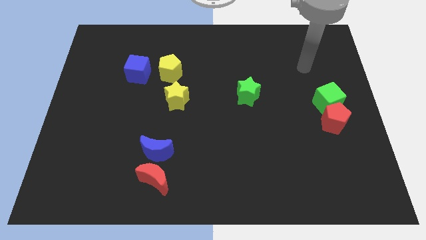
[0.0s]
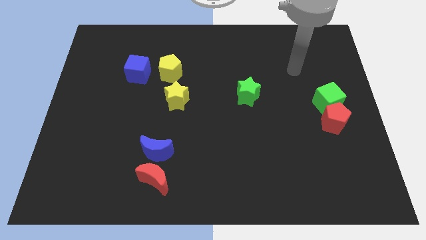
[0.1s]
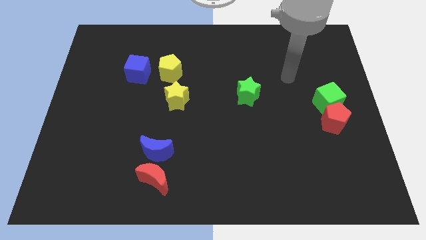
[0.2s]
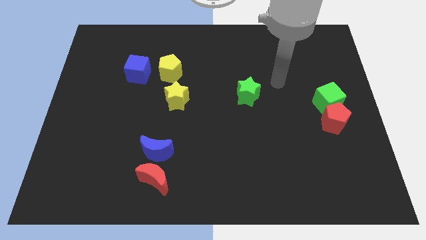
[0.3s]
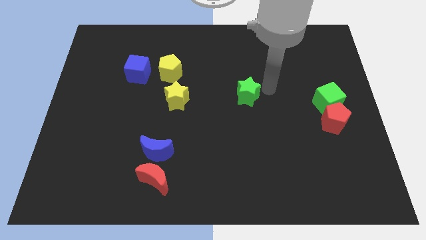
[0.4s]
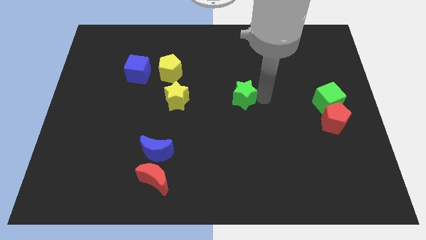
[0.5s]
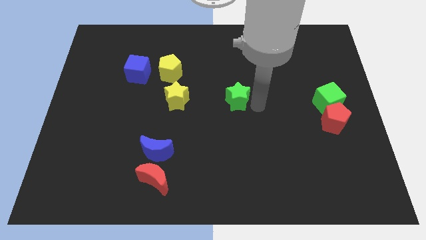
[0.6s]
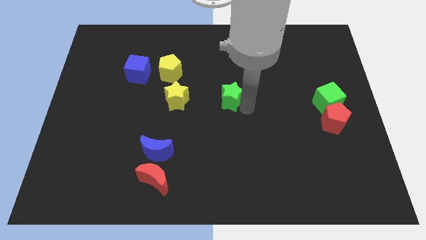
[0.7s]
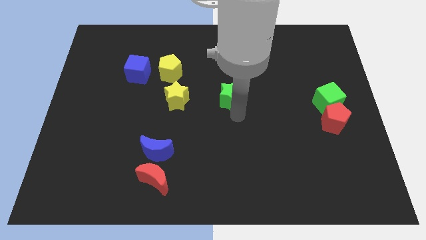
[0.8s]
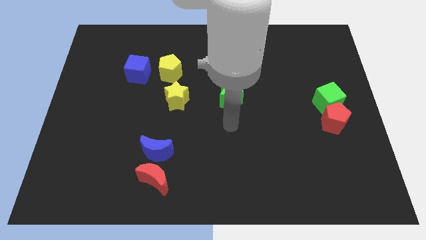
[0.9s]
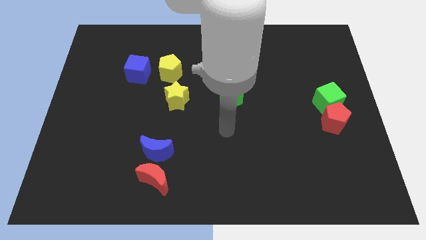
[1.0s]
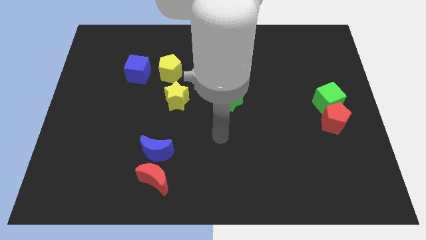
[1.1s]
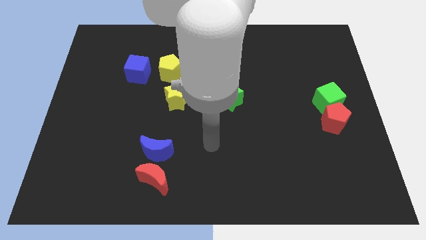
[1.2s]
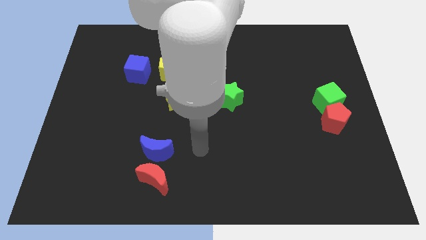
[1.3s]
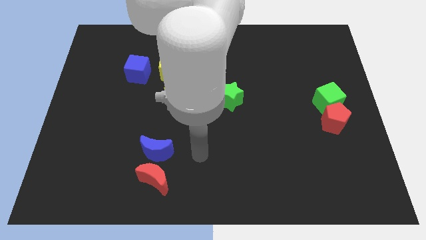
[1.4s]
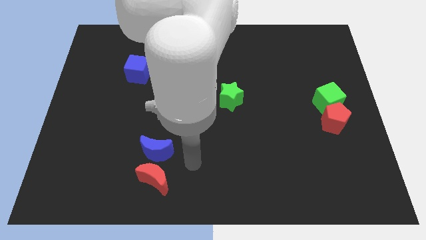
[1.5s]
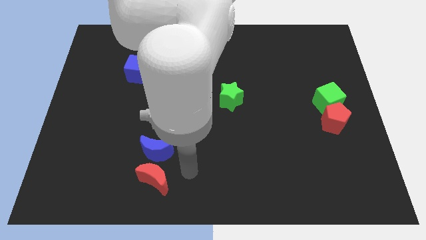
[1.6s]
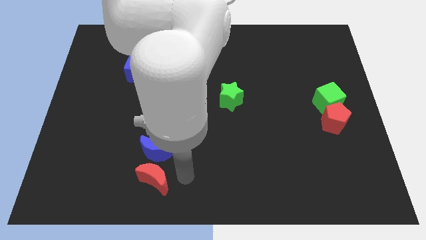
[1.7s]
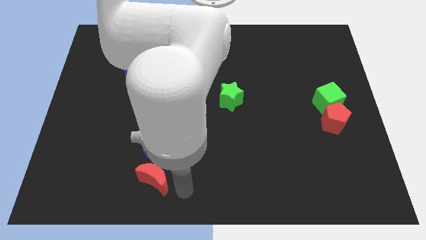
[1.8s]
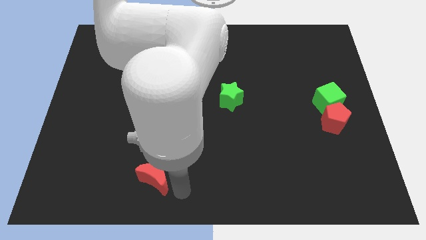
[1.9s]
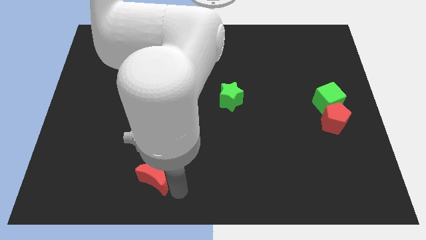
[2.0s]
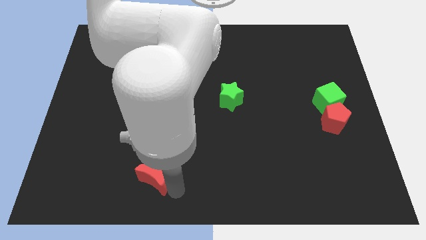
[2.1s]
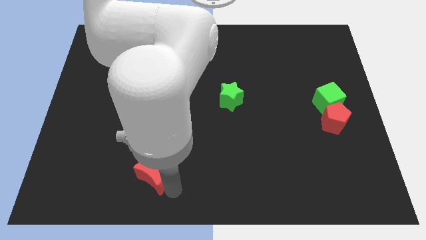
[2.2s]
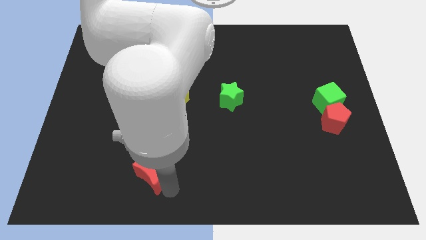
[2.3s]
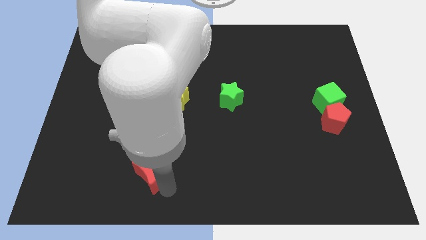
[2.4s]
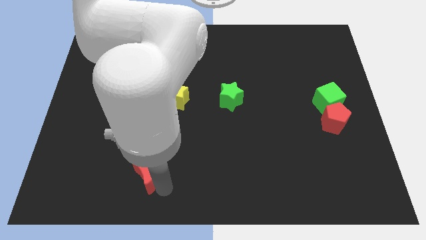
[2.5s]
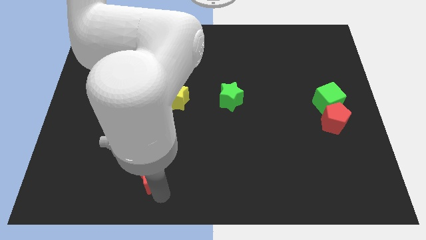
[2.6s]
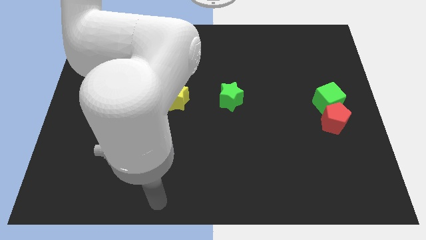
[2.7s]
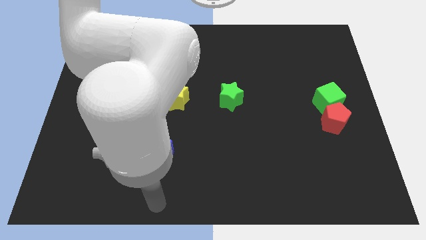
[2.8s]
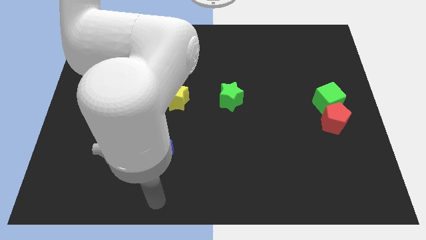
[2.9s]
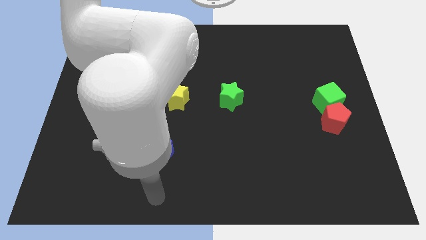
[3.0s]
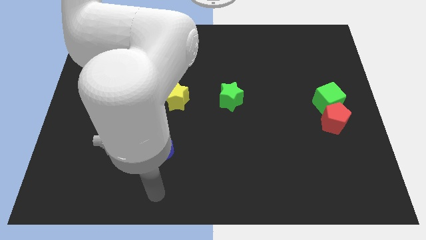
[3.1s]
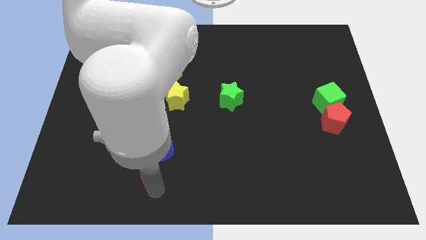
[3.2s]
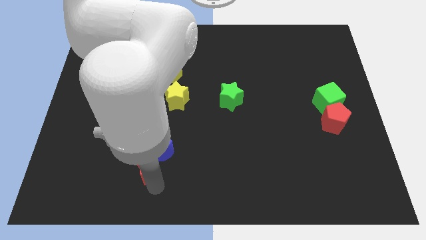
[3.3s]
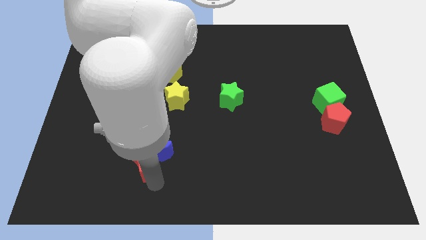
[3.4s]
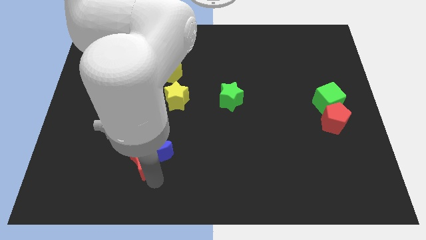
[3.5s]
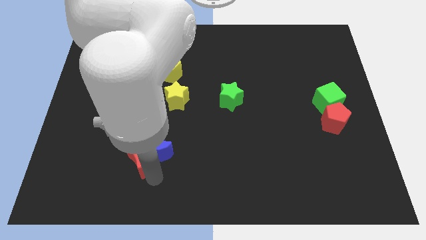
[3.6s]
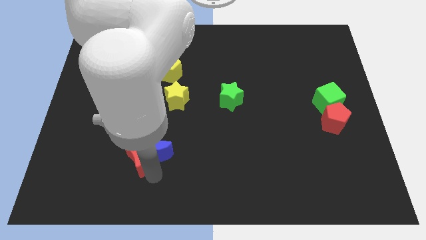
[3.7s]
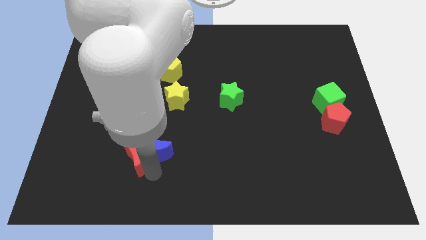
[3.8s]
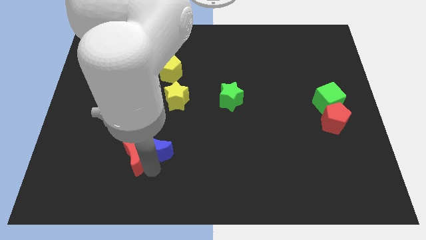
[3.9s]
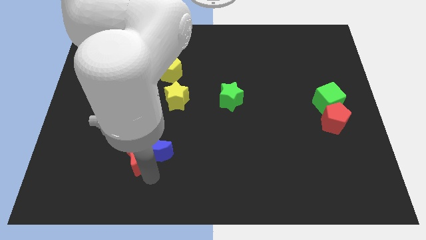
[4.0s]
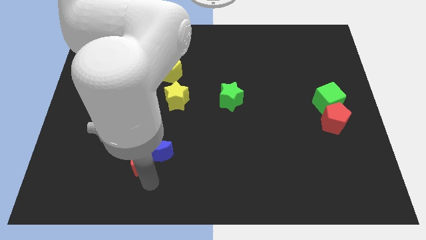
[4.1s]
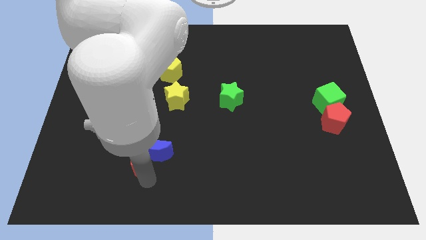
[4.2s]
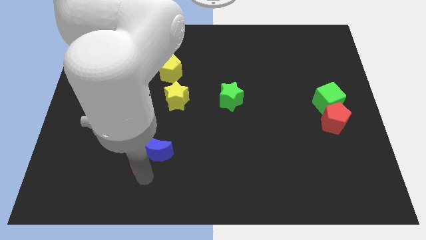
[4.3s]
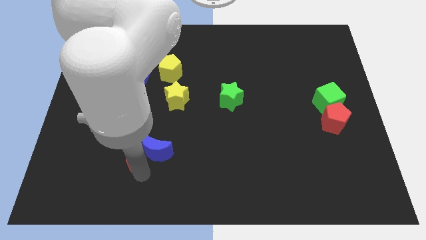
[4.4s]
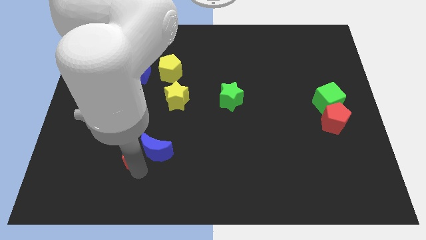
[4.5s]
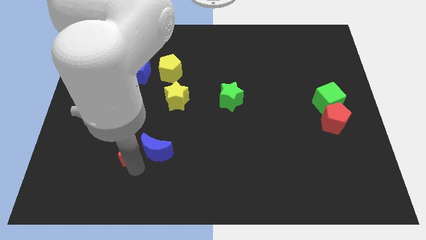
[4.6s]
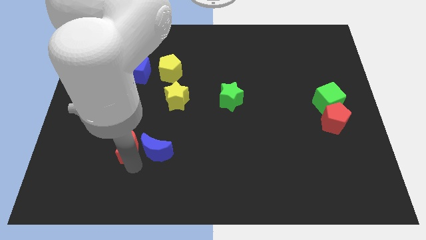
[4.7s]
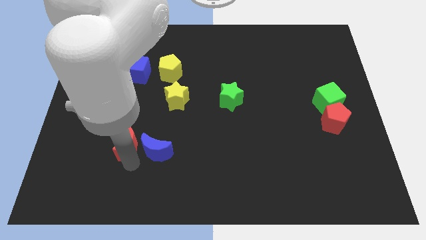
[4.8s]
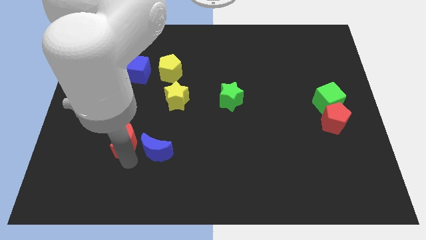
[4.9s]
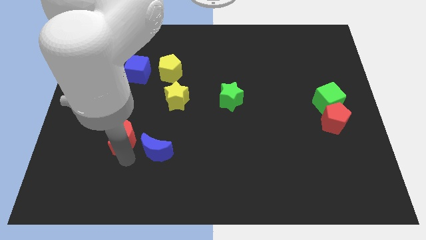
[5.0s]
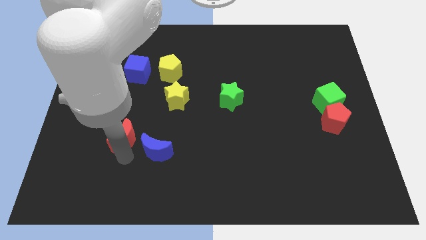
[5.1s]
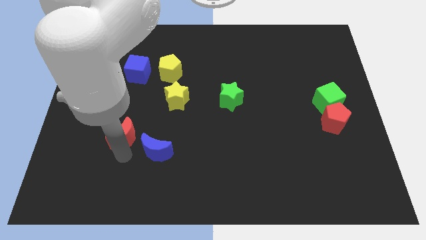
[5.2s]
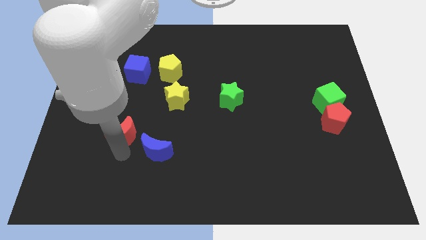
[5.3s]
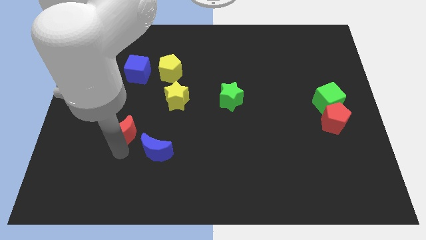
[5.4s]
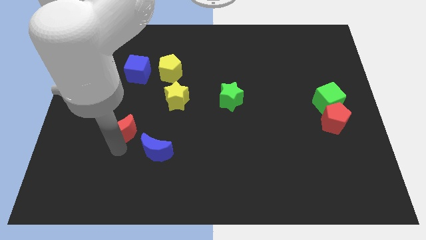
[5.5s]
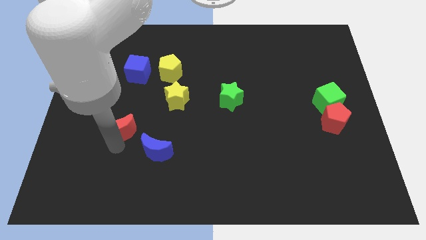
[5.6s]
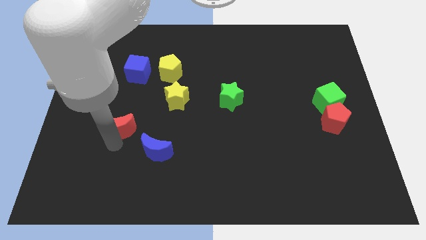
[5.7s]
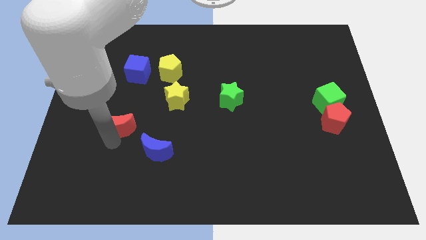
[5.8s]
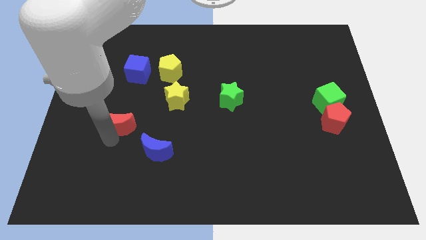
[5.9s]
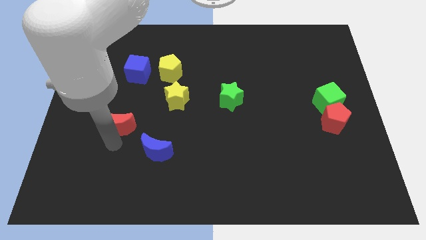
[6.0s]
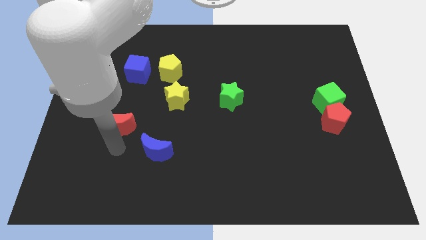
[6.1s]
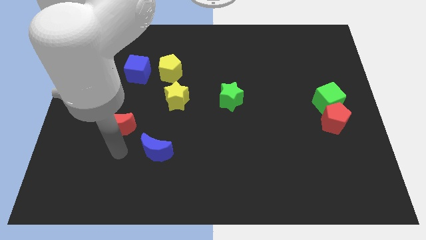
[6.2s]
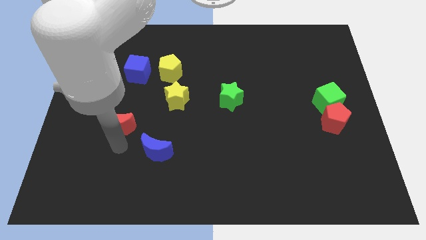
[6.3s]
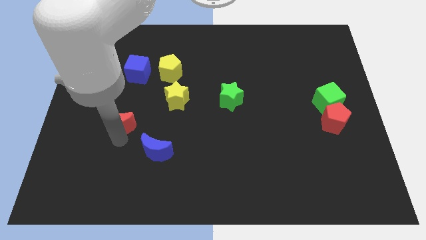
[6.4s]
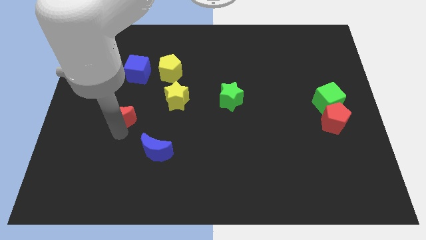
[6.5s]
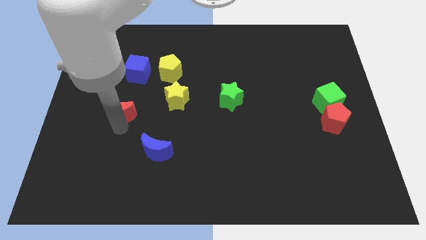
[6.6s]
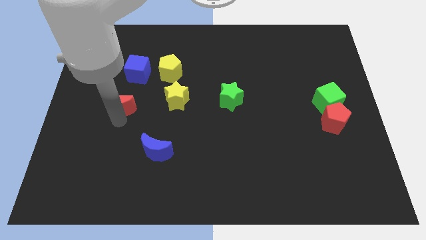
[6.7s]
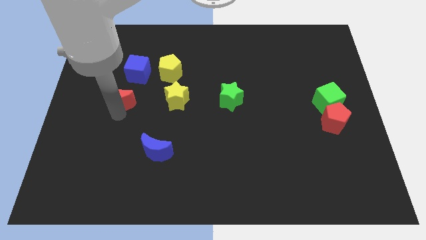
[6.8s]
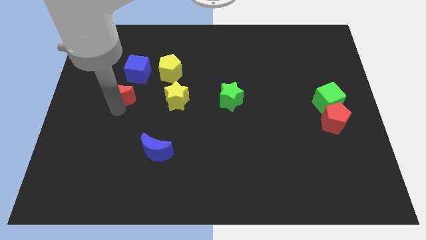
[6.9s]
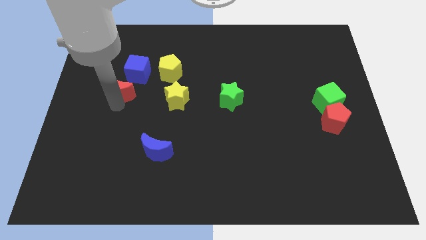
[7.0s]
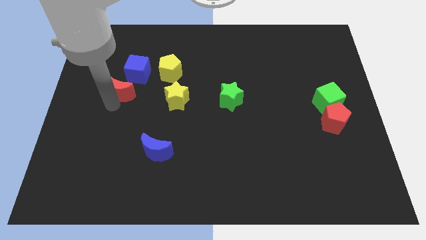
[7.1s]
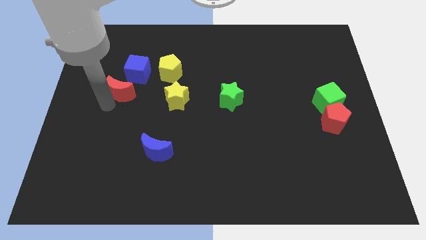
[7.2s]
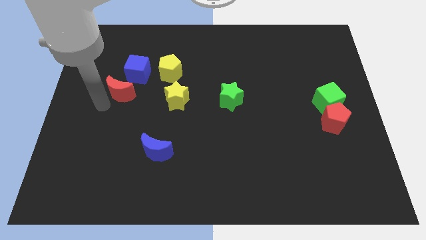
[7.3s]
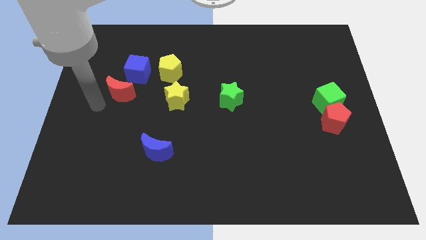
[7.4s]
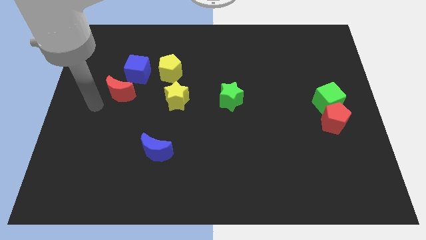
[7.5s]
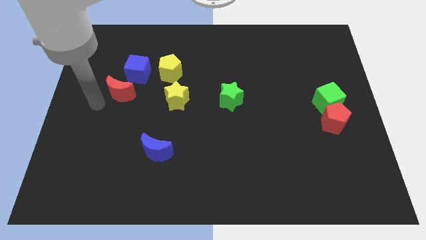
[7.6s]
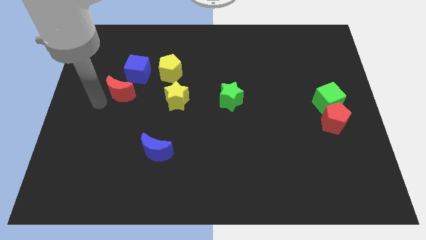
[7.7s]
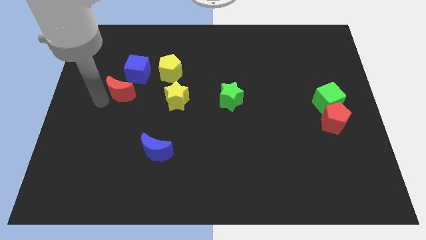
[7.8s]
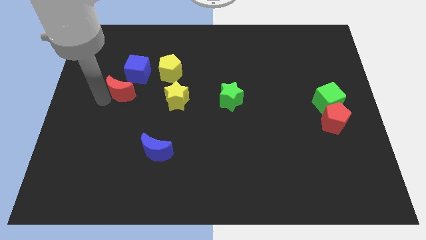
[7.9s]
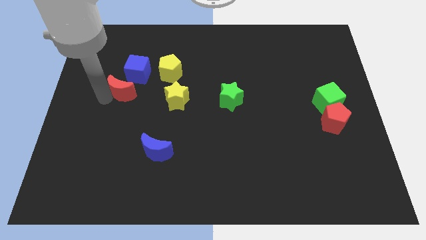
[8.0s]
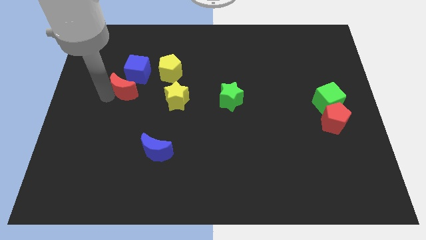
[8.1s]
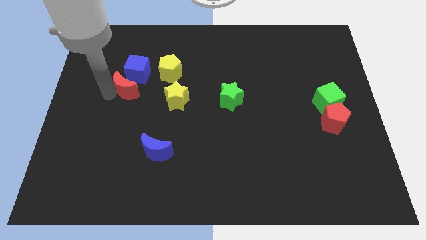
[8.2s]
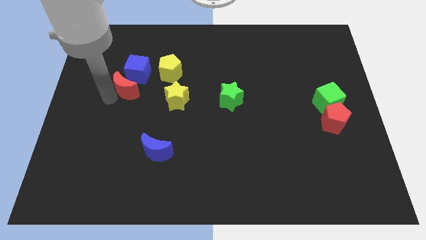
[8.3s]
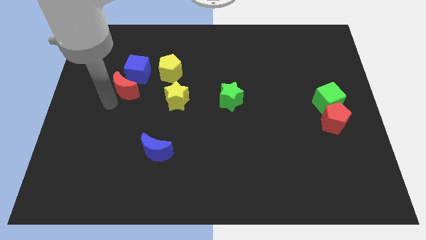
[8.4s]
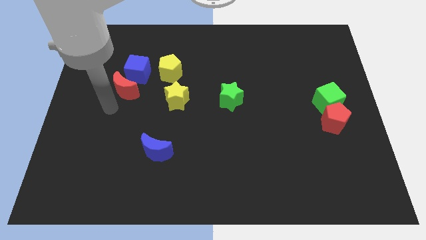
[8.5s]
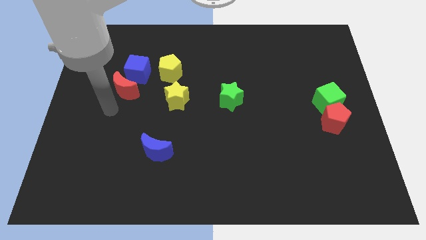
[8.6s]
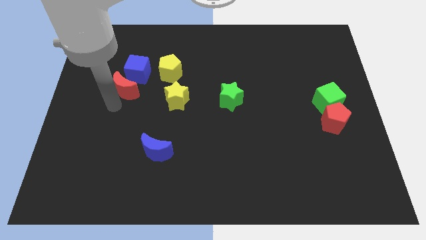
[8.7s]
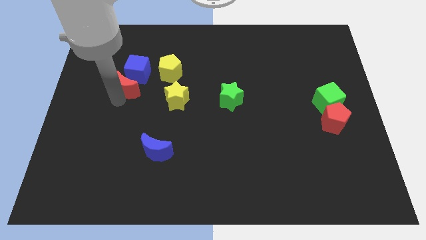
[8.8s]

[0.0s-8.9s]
move the red moon close to the blue cube
